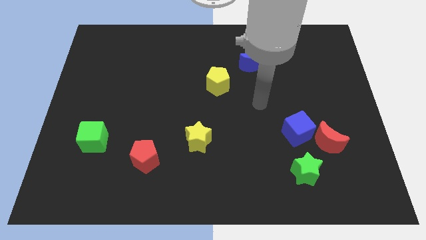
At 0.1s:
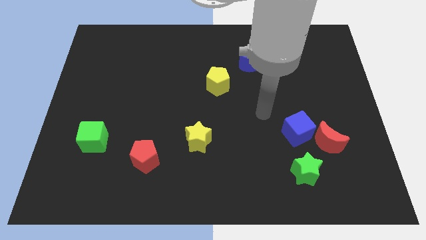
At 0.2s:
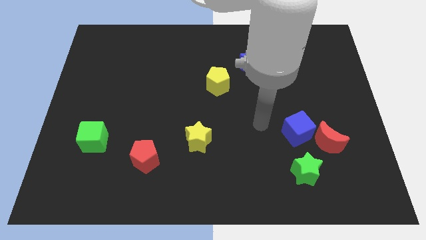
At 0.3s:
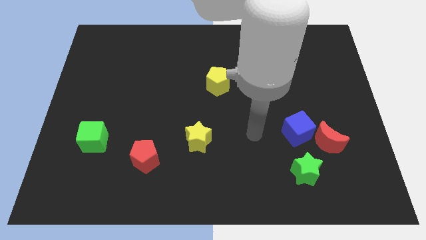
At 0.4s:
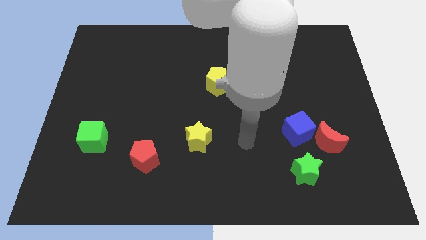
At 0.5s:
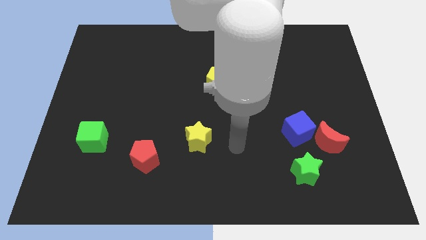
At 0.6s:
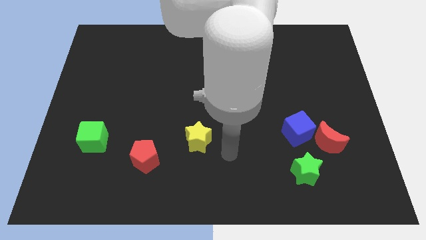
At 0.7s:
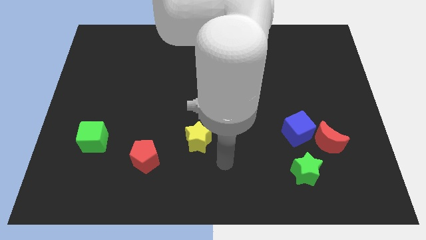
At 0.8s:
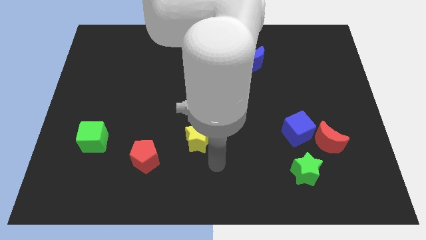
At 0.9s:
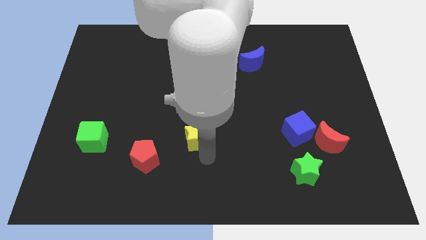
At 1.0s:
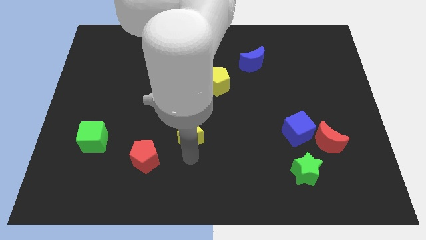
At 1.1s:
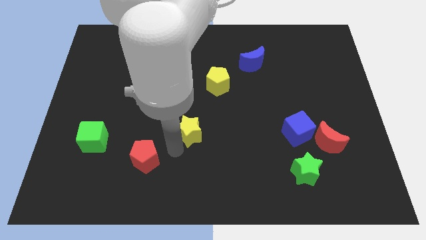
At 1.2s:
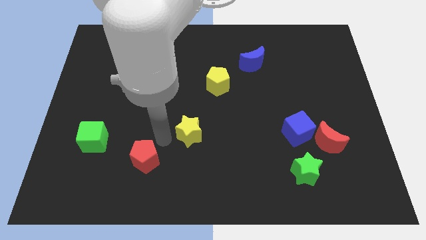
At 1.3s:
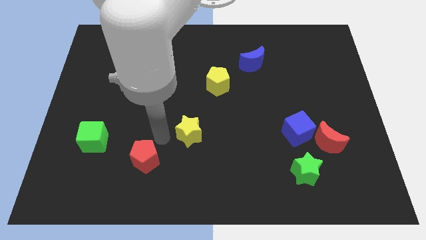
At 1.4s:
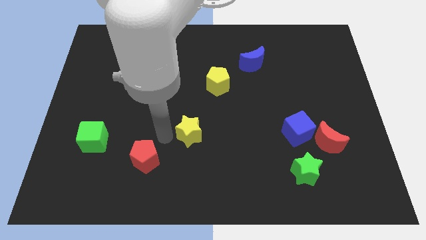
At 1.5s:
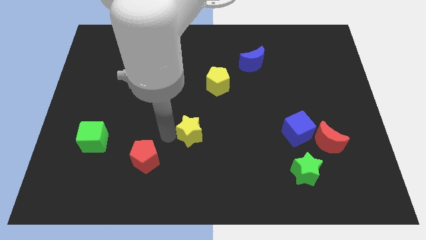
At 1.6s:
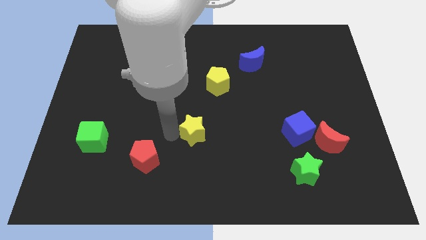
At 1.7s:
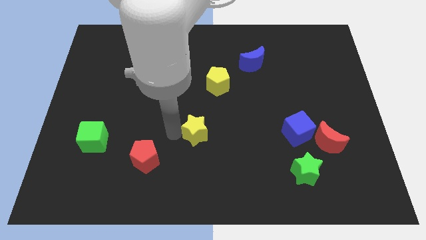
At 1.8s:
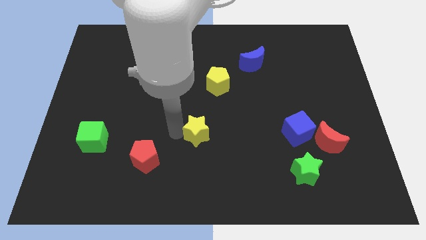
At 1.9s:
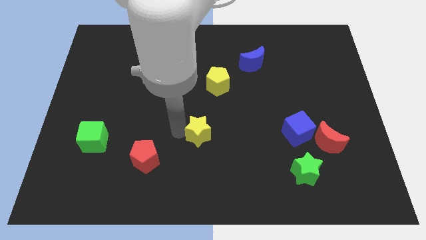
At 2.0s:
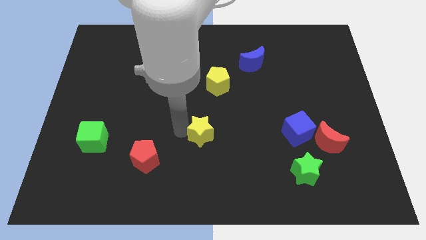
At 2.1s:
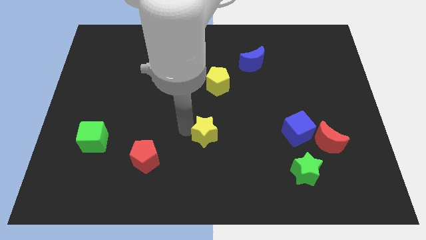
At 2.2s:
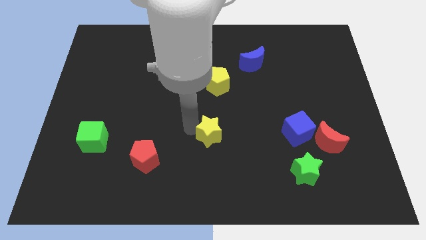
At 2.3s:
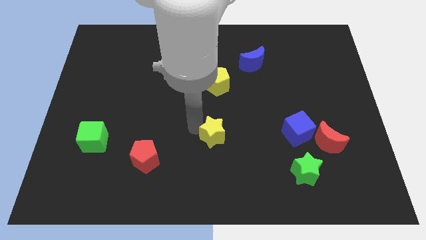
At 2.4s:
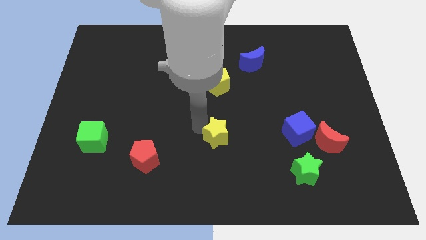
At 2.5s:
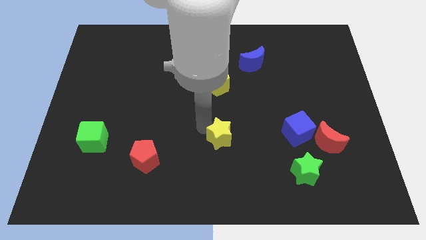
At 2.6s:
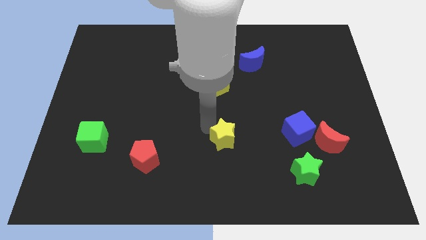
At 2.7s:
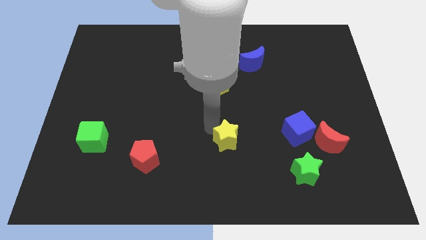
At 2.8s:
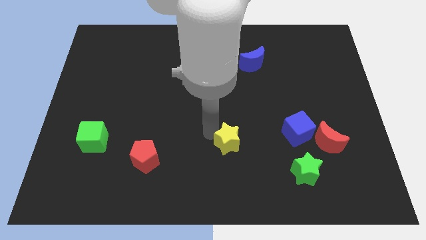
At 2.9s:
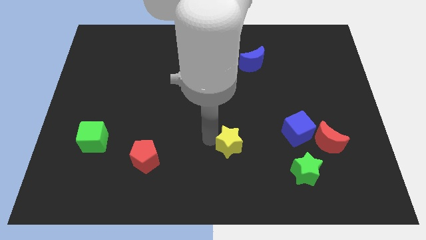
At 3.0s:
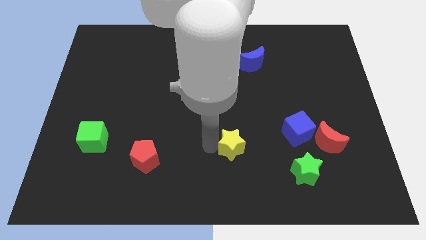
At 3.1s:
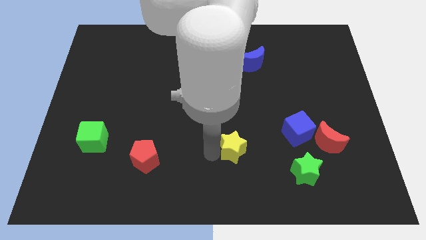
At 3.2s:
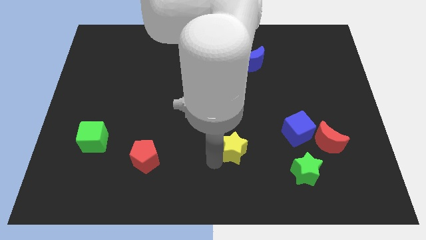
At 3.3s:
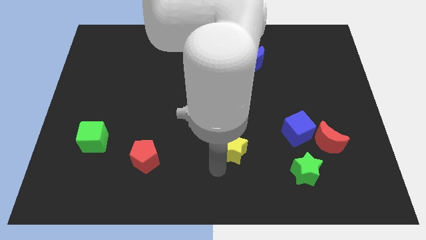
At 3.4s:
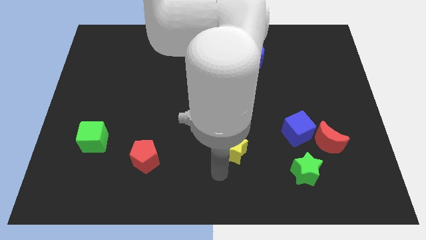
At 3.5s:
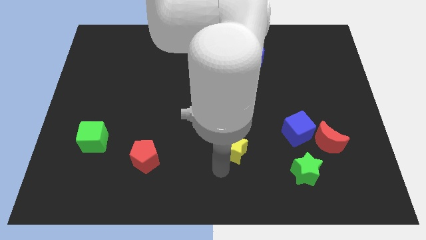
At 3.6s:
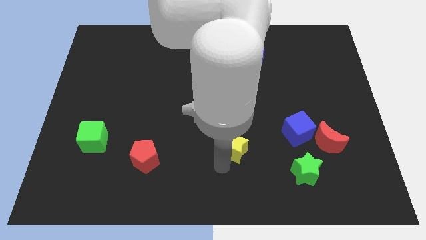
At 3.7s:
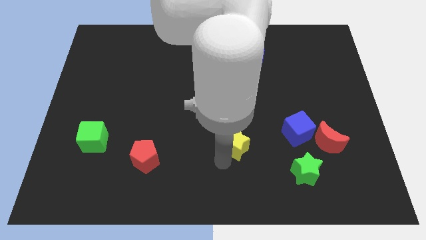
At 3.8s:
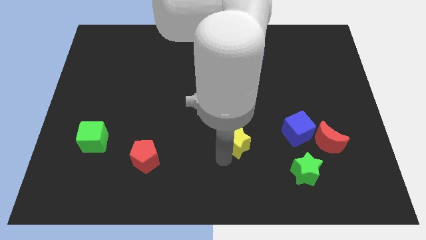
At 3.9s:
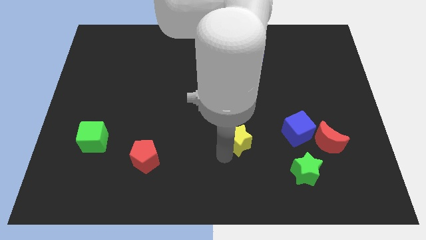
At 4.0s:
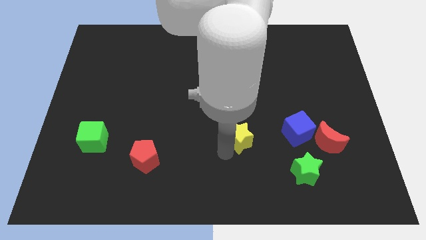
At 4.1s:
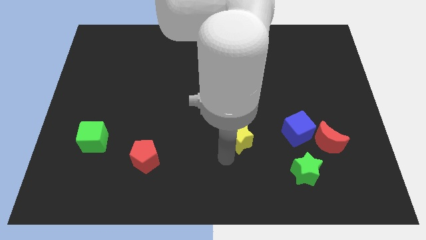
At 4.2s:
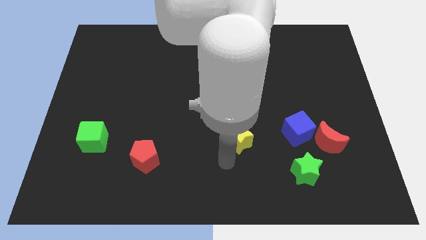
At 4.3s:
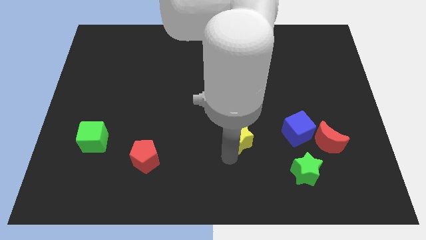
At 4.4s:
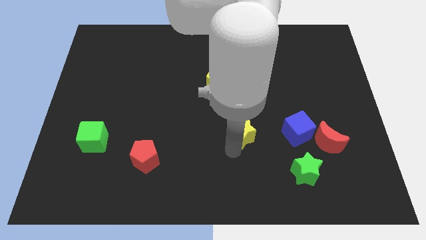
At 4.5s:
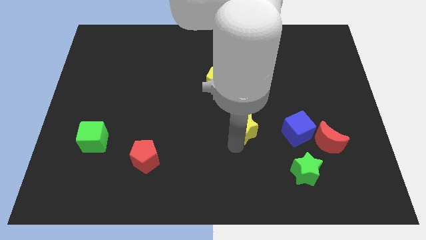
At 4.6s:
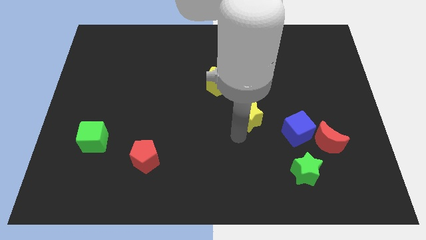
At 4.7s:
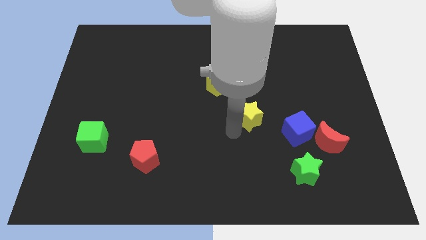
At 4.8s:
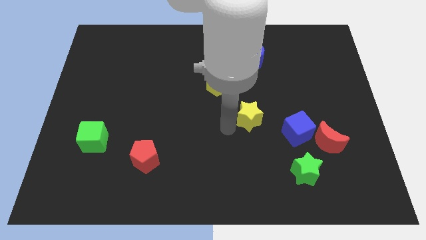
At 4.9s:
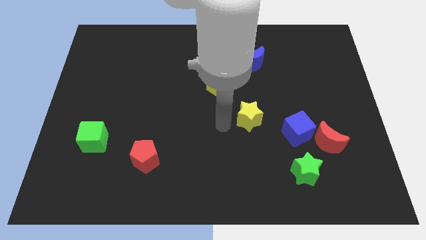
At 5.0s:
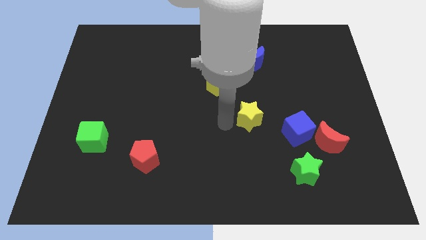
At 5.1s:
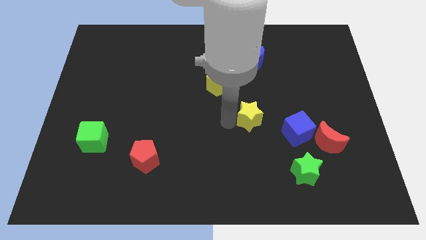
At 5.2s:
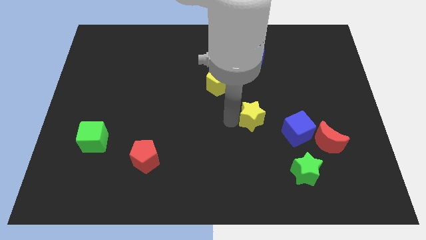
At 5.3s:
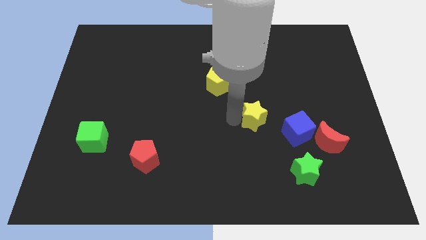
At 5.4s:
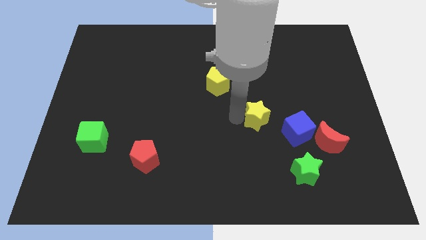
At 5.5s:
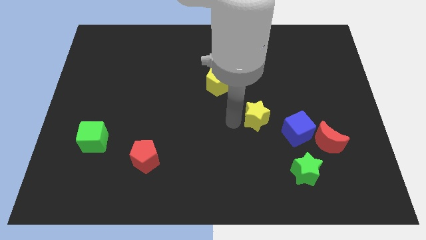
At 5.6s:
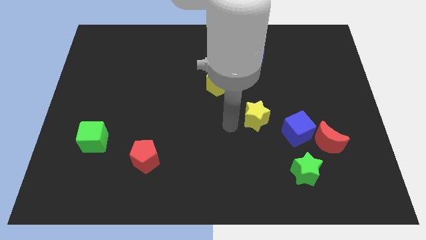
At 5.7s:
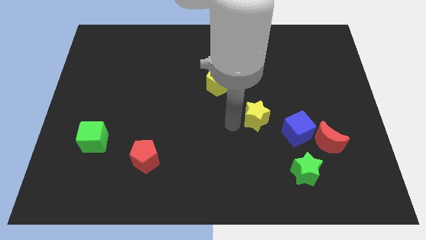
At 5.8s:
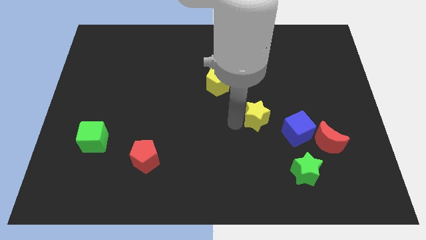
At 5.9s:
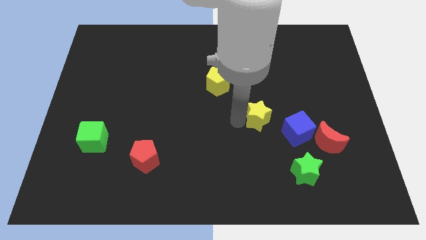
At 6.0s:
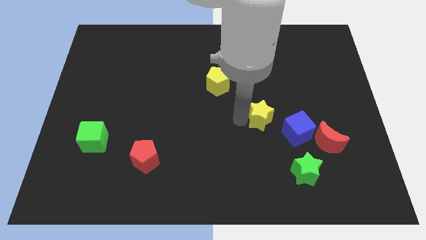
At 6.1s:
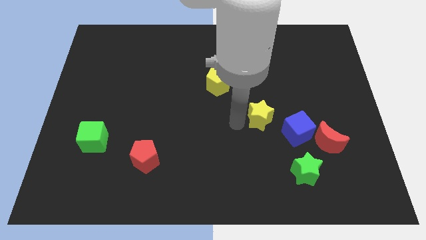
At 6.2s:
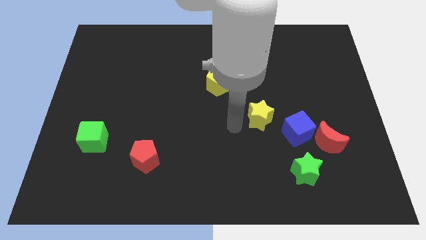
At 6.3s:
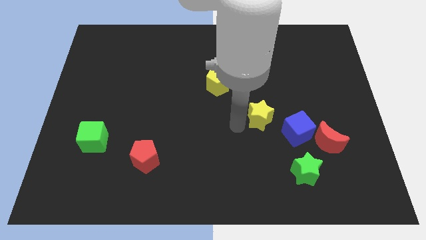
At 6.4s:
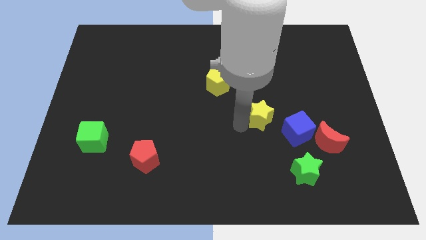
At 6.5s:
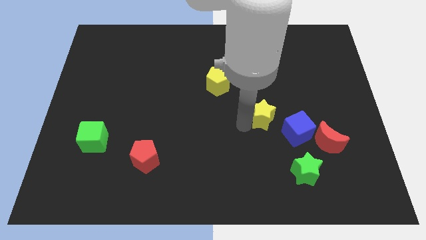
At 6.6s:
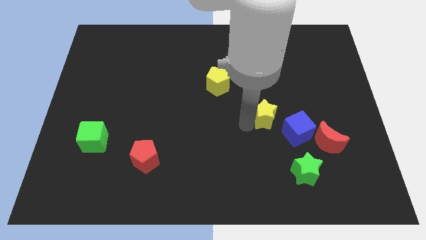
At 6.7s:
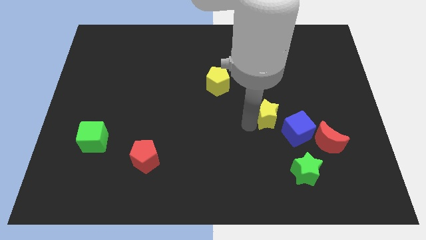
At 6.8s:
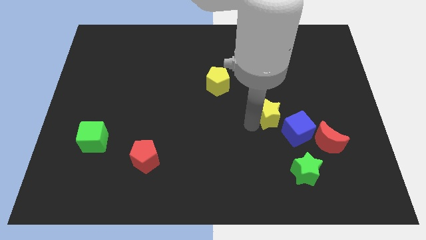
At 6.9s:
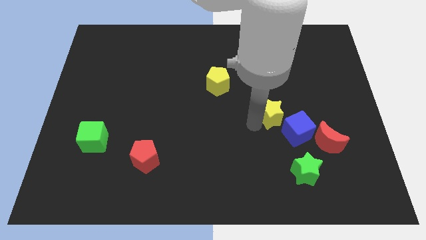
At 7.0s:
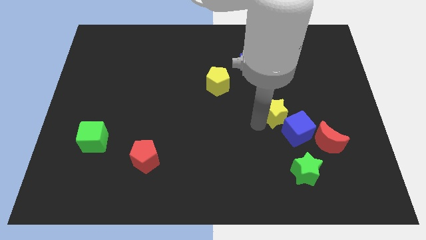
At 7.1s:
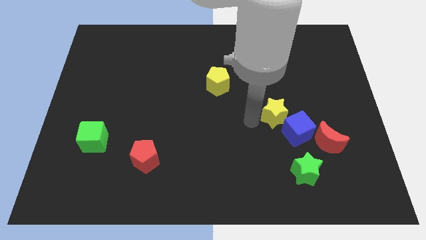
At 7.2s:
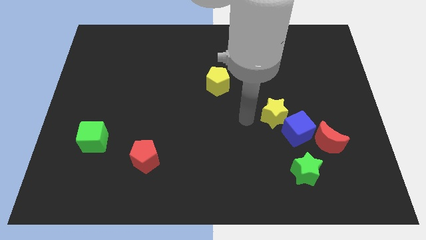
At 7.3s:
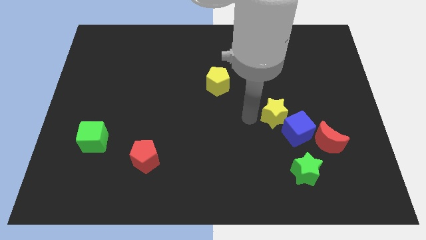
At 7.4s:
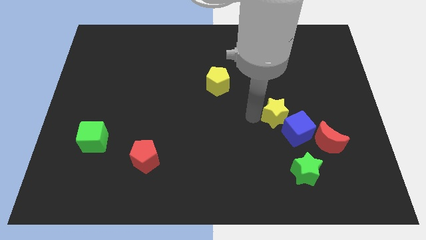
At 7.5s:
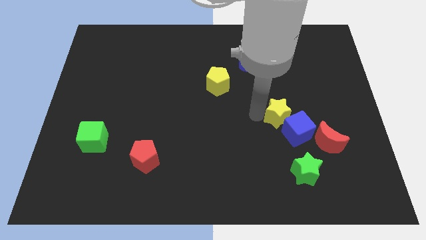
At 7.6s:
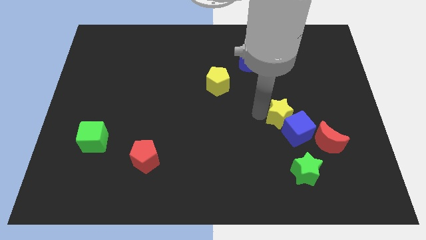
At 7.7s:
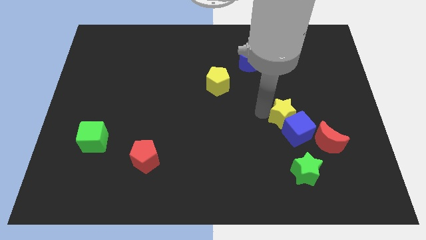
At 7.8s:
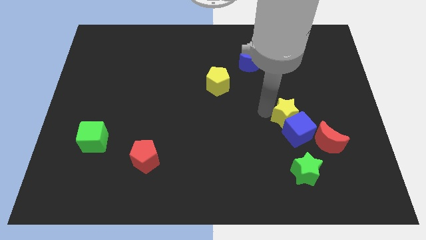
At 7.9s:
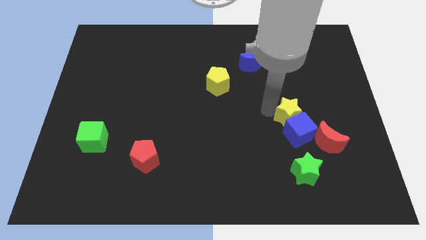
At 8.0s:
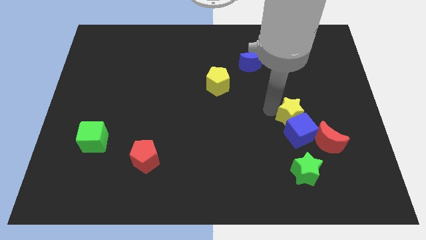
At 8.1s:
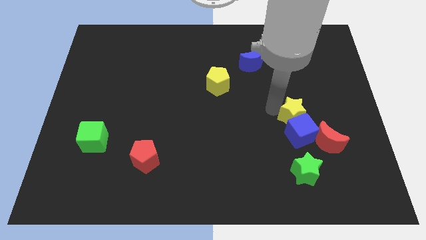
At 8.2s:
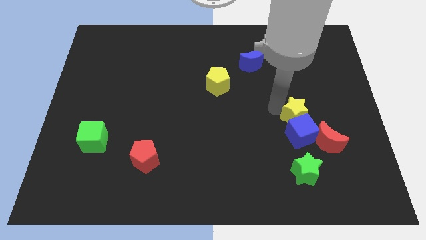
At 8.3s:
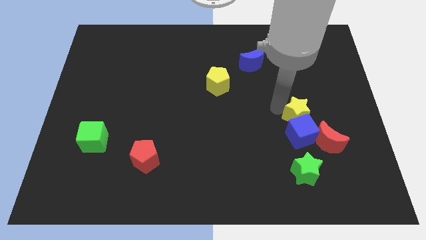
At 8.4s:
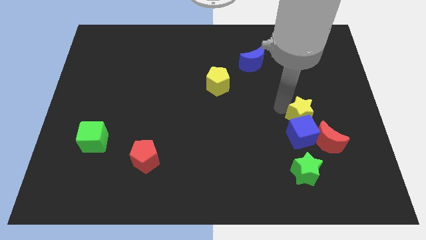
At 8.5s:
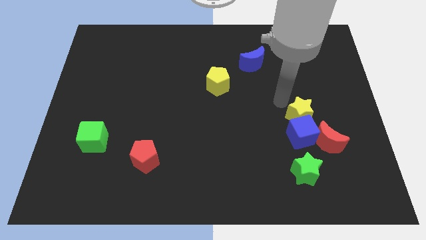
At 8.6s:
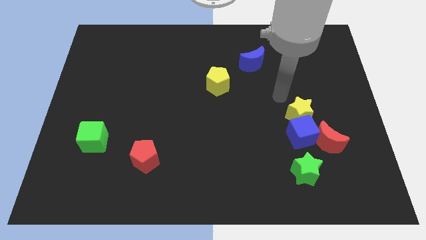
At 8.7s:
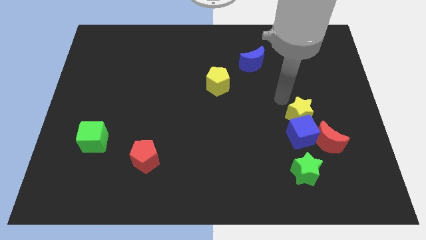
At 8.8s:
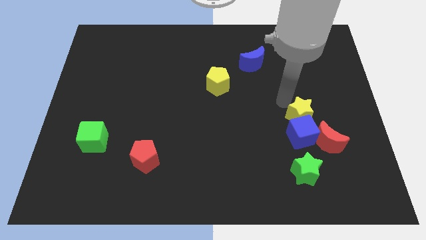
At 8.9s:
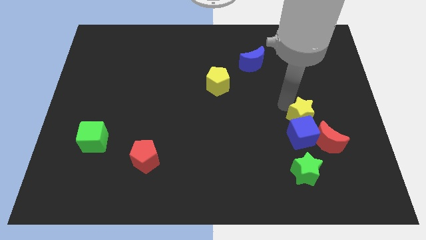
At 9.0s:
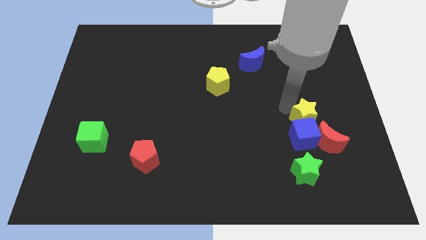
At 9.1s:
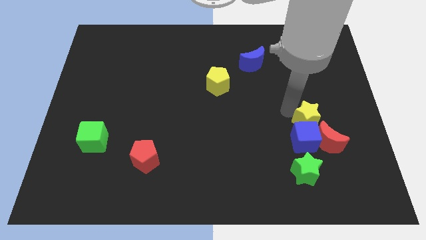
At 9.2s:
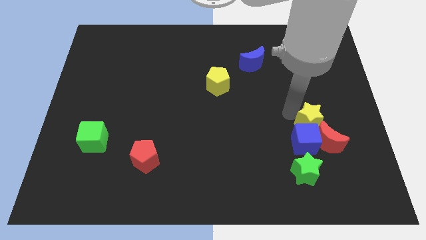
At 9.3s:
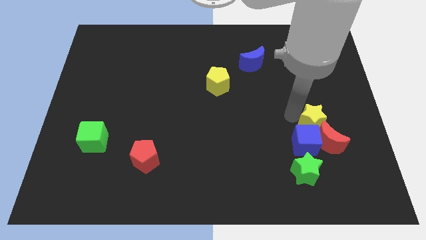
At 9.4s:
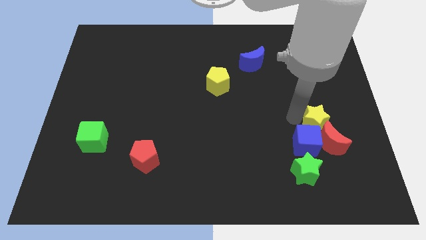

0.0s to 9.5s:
push the yellow star to the red moon
